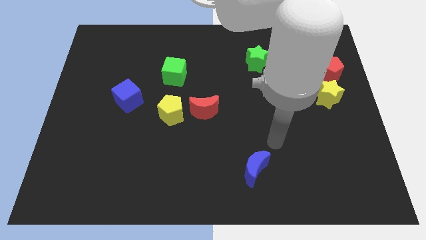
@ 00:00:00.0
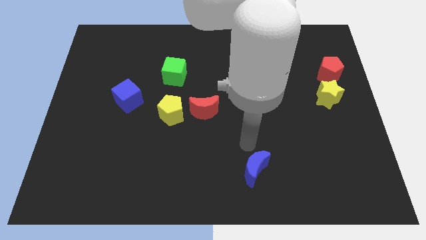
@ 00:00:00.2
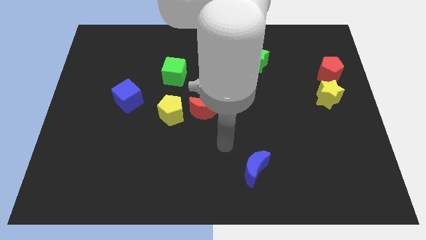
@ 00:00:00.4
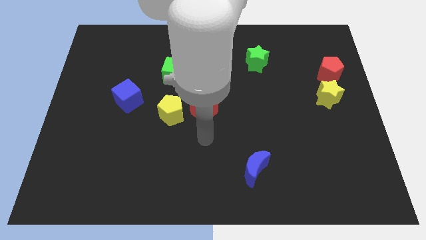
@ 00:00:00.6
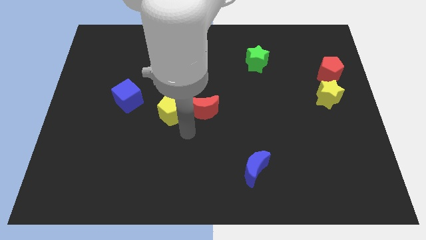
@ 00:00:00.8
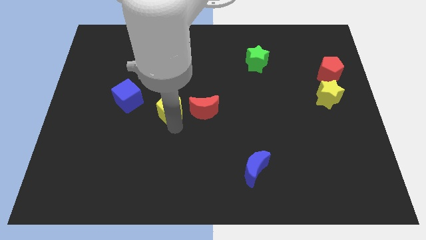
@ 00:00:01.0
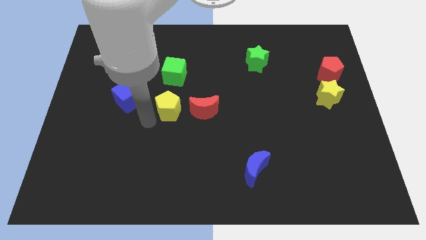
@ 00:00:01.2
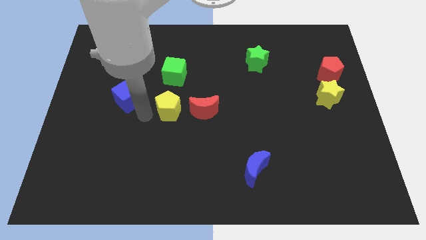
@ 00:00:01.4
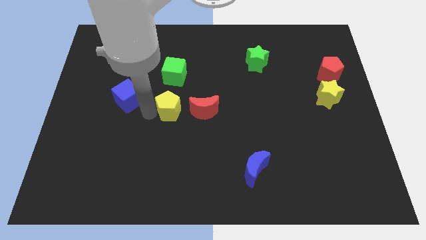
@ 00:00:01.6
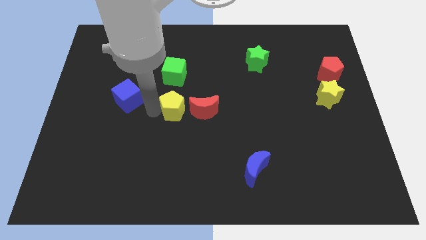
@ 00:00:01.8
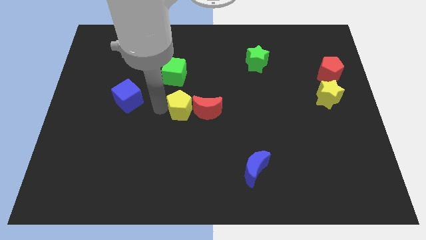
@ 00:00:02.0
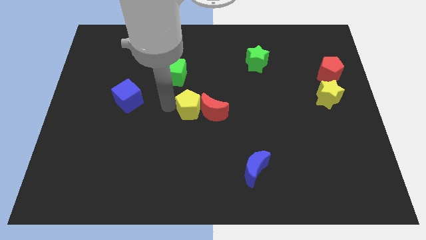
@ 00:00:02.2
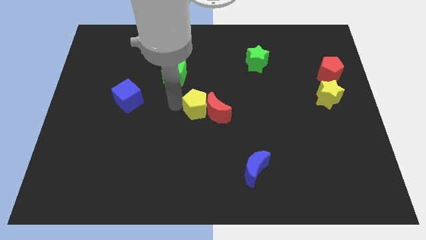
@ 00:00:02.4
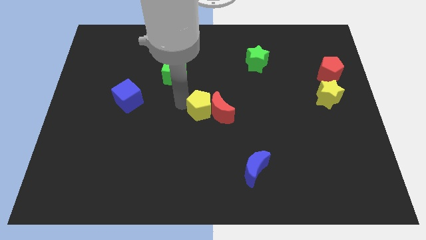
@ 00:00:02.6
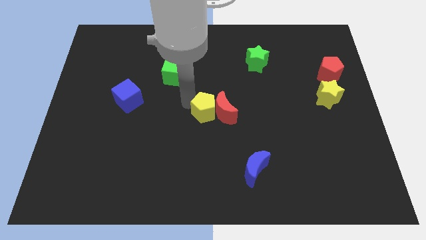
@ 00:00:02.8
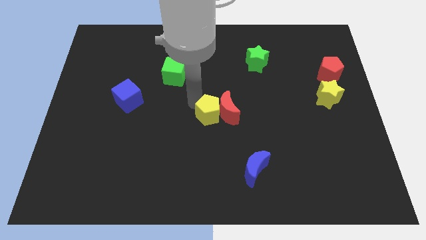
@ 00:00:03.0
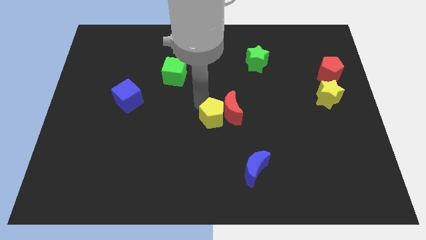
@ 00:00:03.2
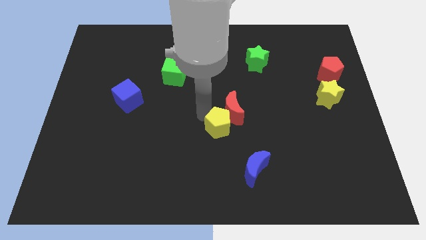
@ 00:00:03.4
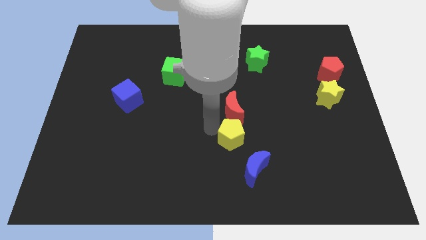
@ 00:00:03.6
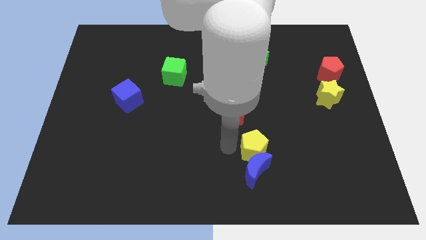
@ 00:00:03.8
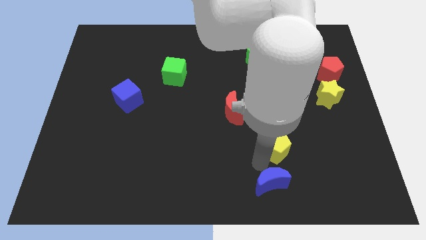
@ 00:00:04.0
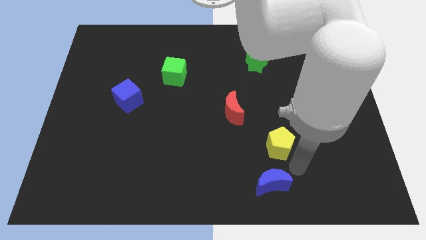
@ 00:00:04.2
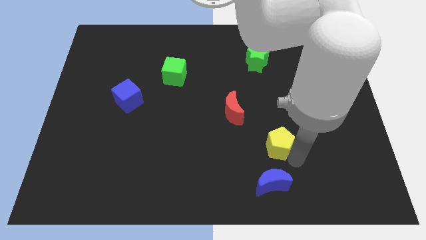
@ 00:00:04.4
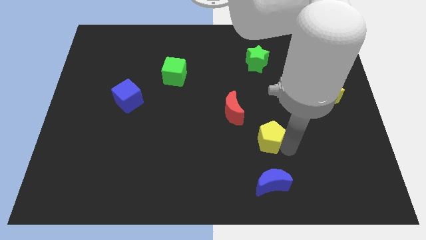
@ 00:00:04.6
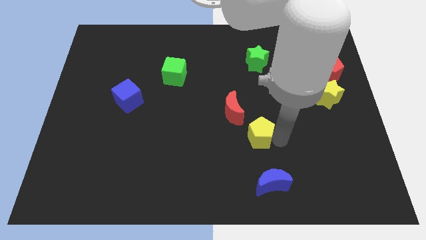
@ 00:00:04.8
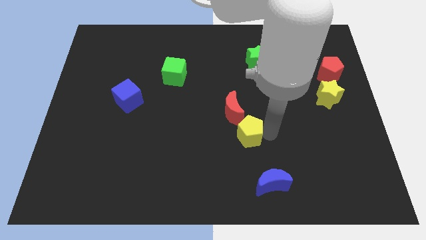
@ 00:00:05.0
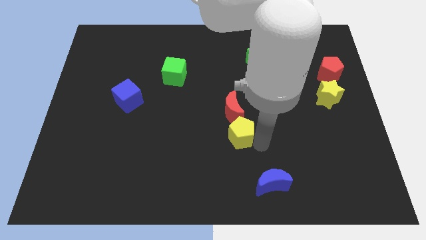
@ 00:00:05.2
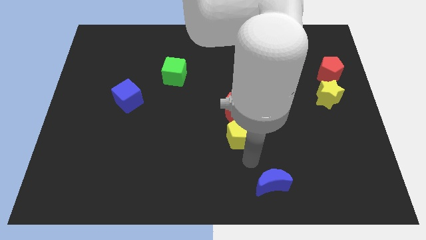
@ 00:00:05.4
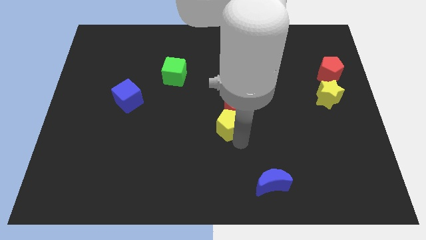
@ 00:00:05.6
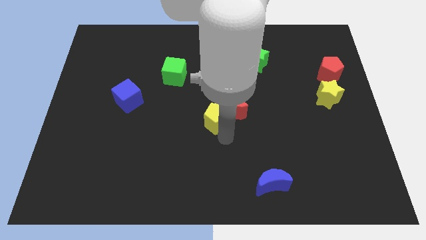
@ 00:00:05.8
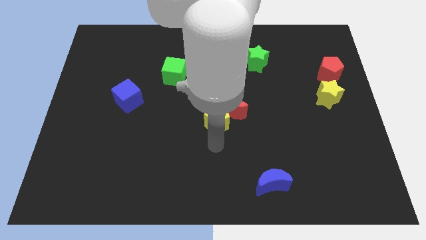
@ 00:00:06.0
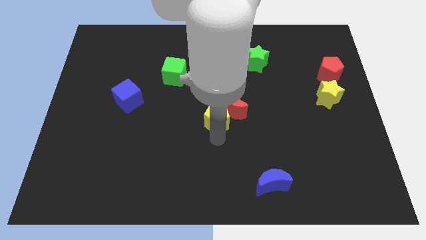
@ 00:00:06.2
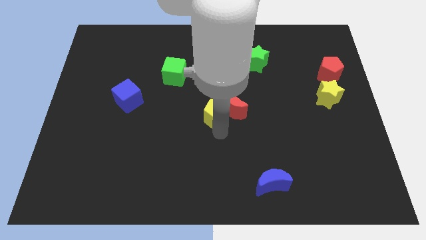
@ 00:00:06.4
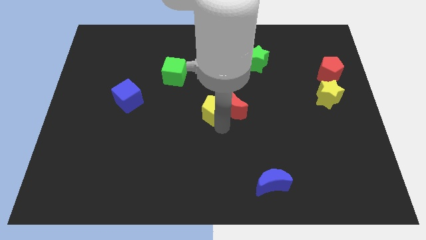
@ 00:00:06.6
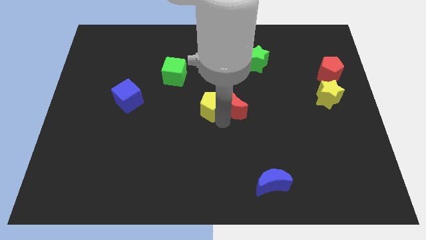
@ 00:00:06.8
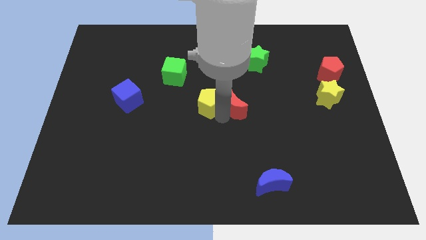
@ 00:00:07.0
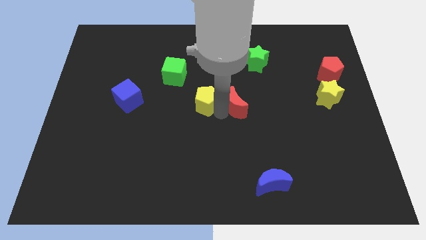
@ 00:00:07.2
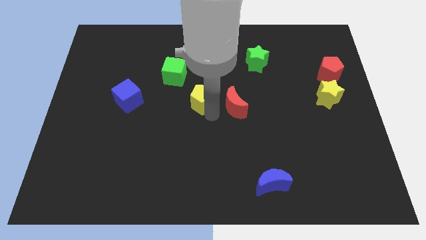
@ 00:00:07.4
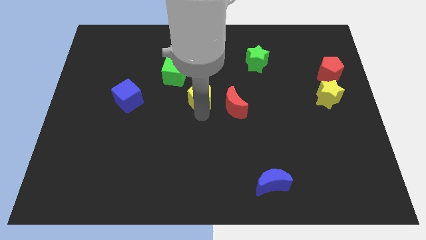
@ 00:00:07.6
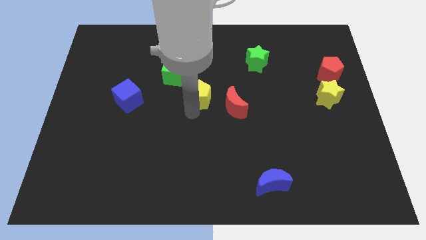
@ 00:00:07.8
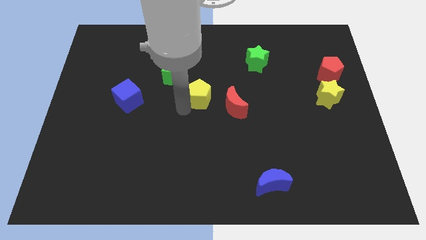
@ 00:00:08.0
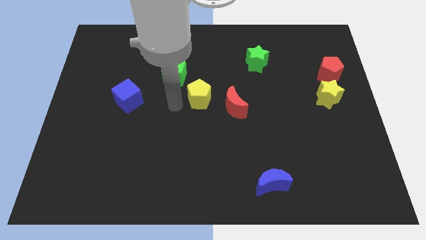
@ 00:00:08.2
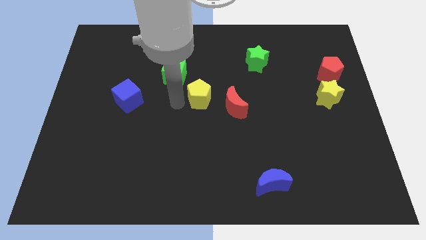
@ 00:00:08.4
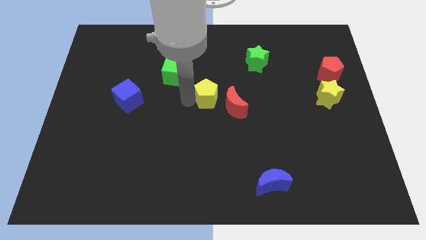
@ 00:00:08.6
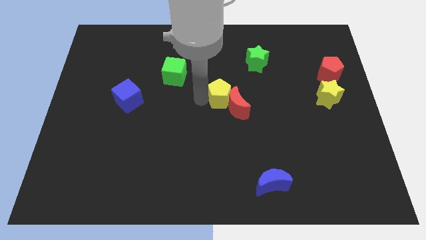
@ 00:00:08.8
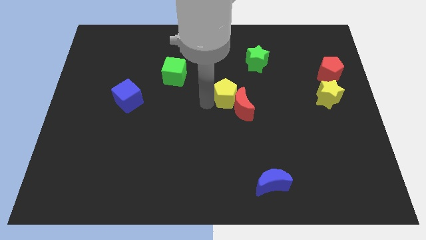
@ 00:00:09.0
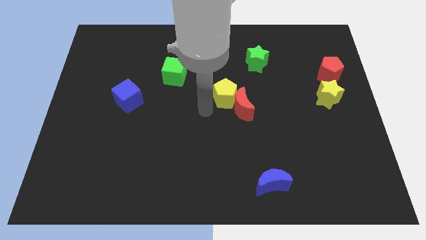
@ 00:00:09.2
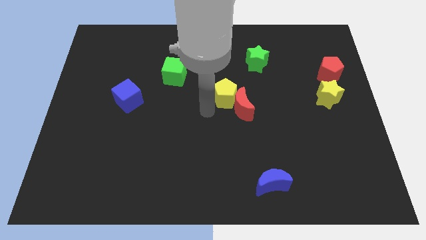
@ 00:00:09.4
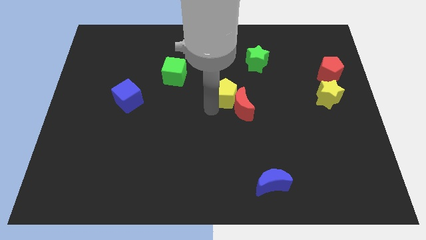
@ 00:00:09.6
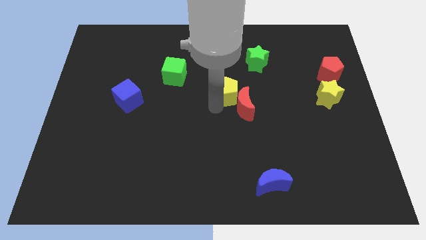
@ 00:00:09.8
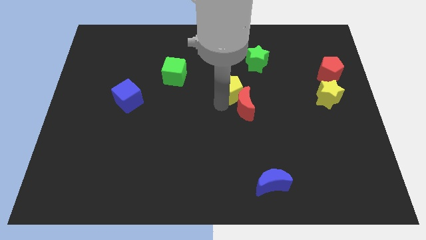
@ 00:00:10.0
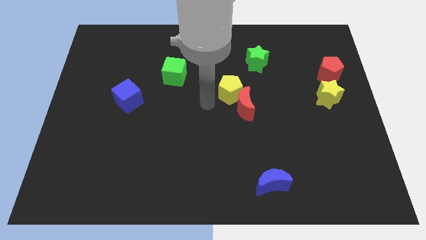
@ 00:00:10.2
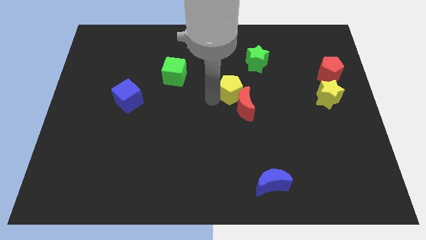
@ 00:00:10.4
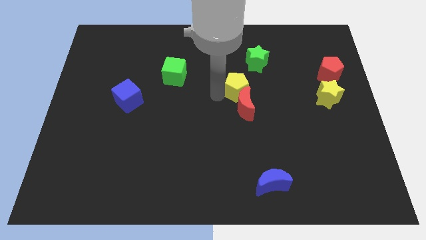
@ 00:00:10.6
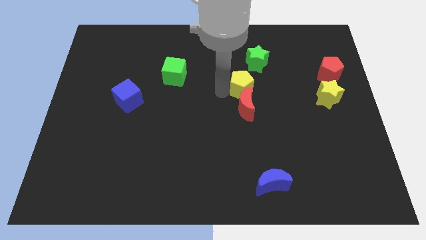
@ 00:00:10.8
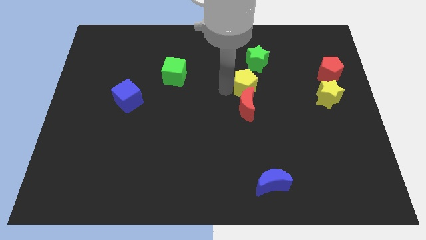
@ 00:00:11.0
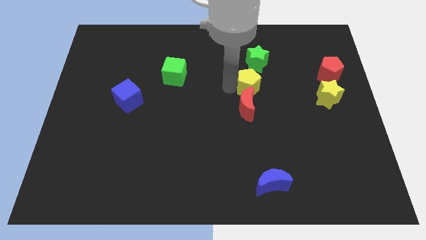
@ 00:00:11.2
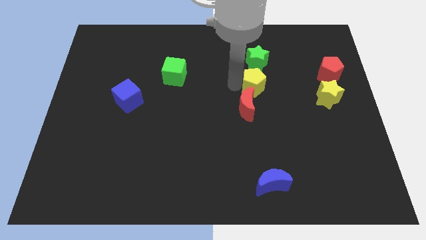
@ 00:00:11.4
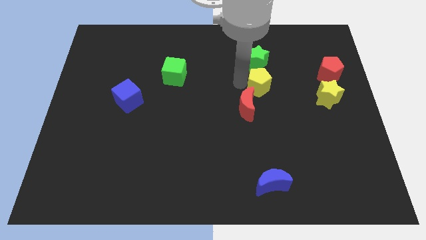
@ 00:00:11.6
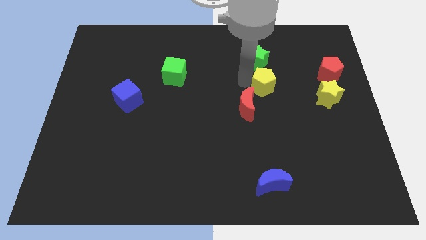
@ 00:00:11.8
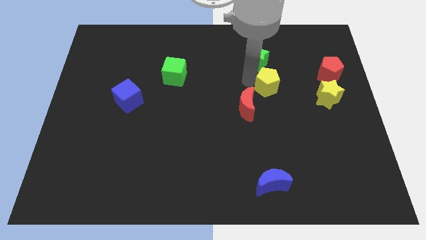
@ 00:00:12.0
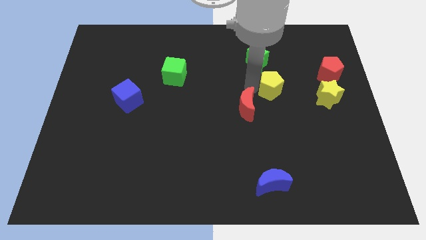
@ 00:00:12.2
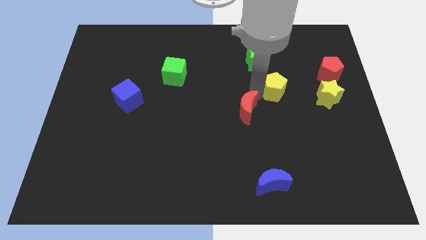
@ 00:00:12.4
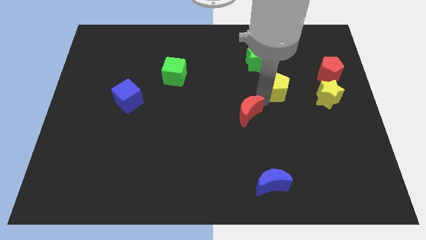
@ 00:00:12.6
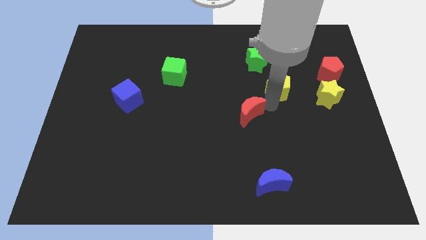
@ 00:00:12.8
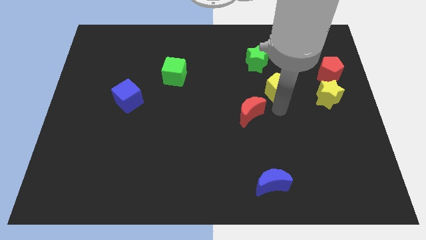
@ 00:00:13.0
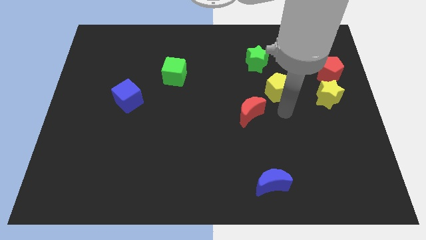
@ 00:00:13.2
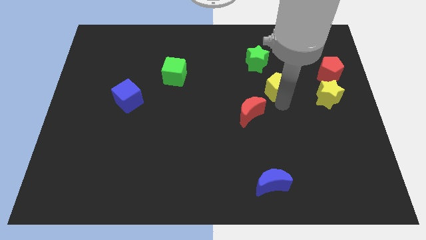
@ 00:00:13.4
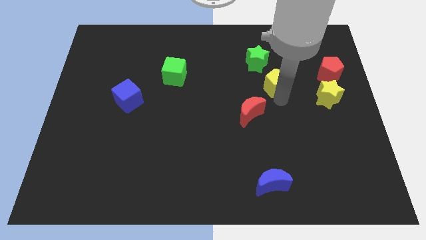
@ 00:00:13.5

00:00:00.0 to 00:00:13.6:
push the yellow pentagon to the left of the red pentagon

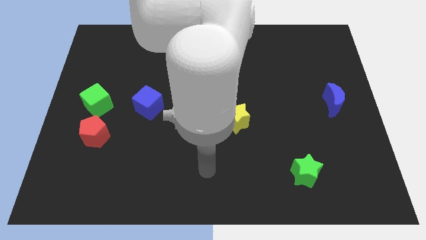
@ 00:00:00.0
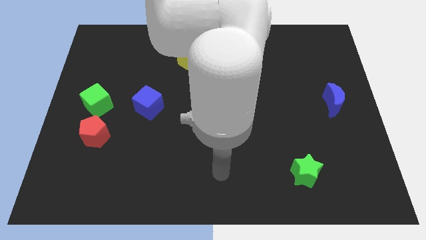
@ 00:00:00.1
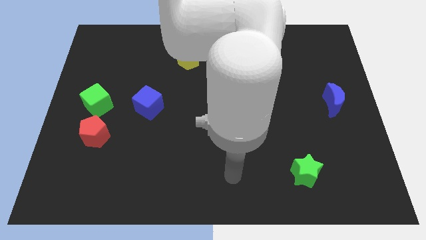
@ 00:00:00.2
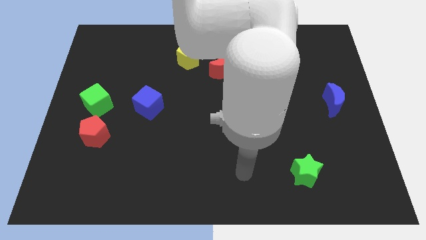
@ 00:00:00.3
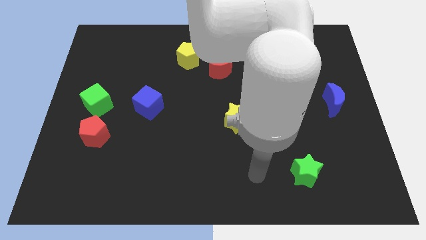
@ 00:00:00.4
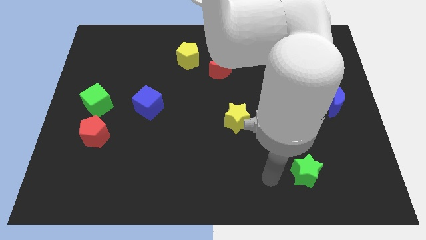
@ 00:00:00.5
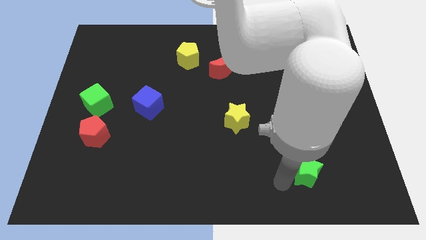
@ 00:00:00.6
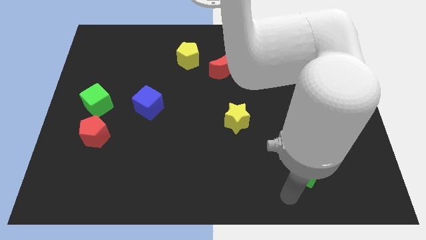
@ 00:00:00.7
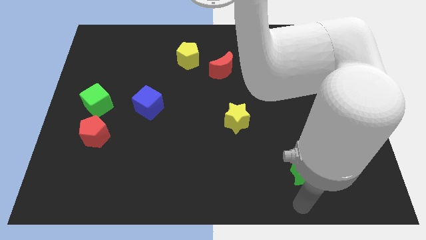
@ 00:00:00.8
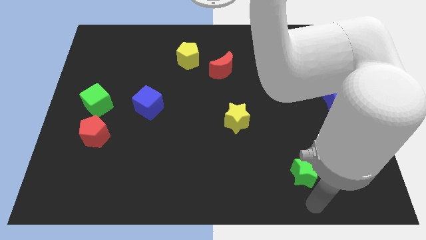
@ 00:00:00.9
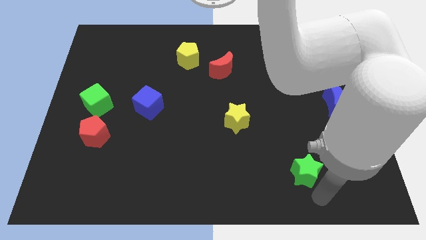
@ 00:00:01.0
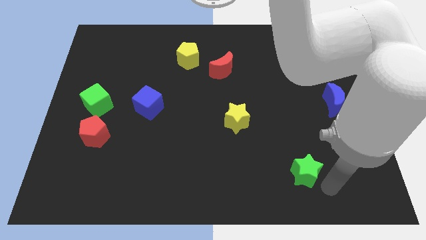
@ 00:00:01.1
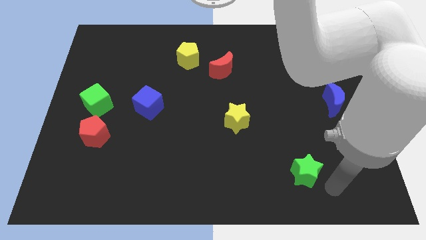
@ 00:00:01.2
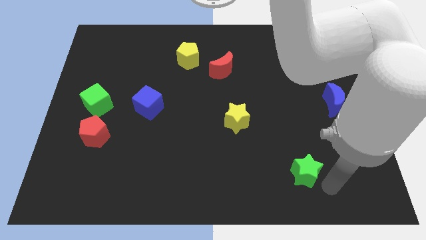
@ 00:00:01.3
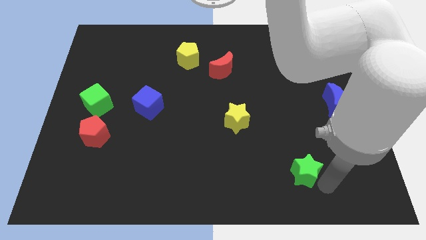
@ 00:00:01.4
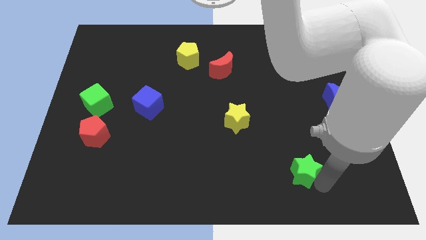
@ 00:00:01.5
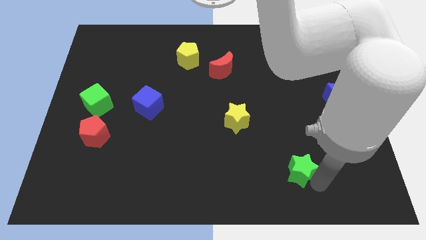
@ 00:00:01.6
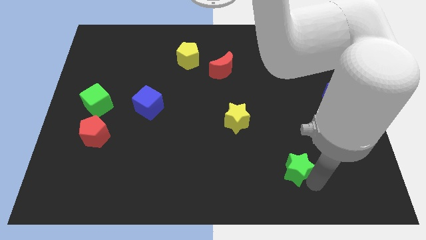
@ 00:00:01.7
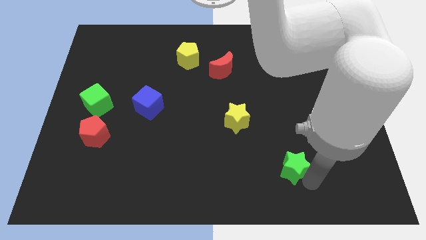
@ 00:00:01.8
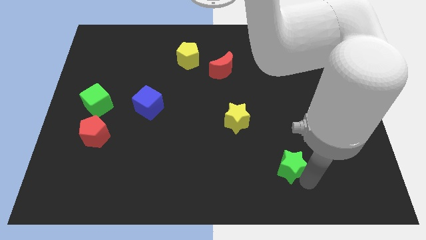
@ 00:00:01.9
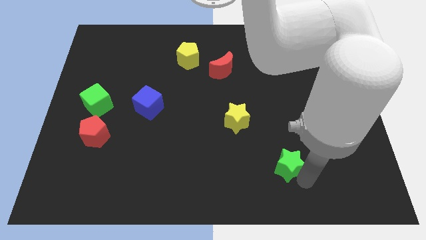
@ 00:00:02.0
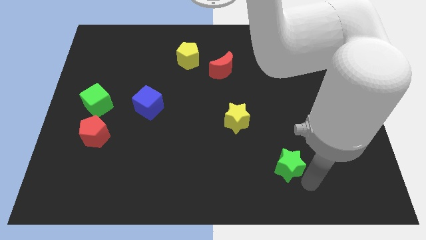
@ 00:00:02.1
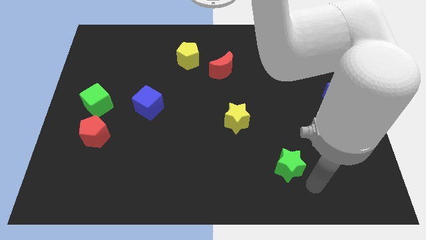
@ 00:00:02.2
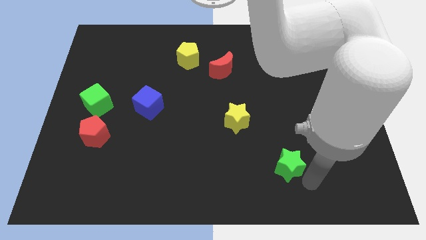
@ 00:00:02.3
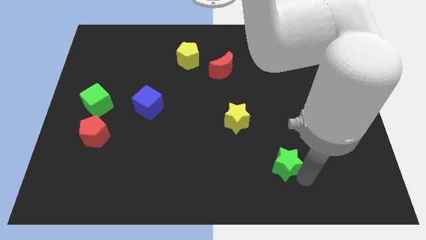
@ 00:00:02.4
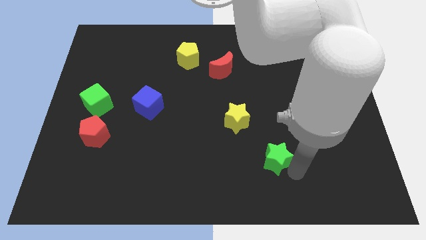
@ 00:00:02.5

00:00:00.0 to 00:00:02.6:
put the green star diagonally down and to the right of the yellow star
